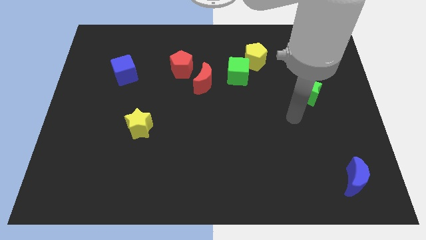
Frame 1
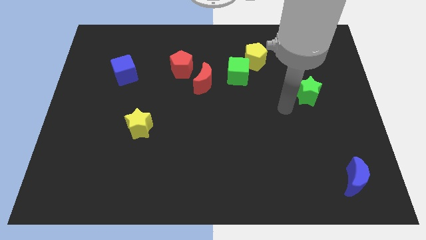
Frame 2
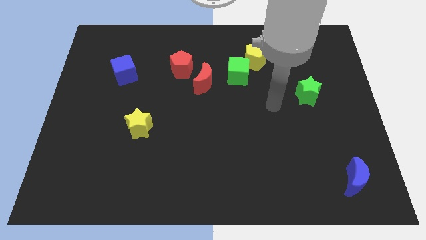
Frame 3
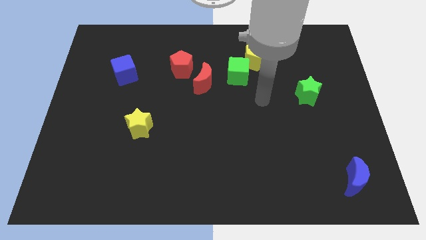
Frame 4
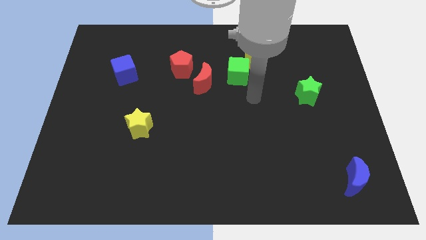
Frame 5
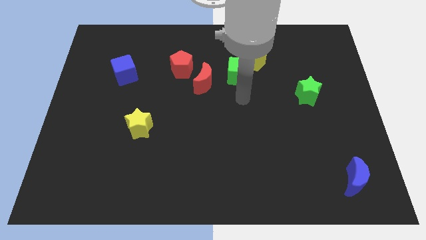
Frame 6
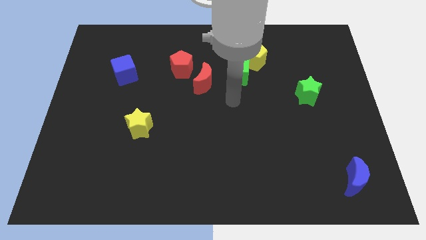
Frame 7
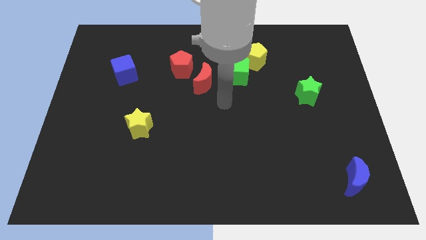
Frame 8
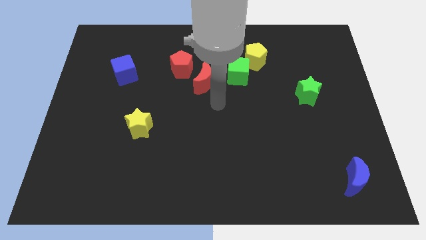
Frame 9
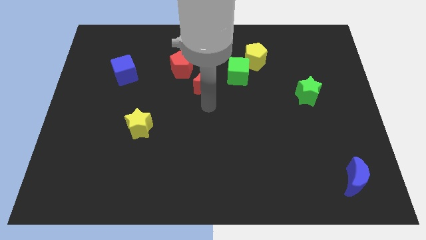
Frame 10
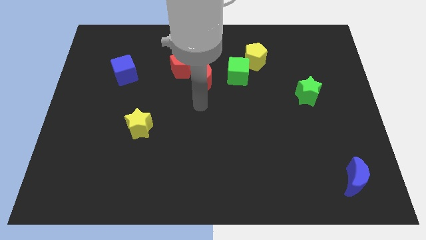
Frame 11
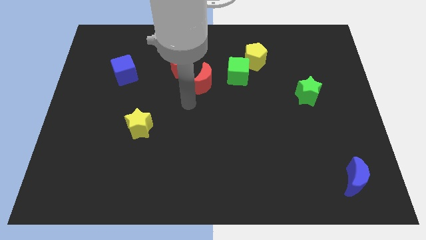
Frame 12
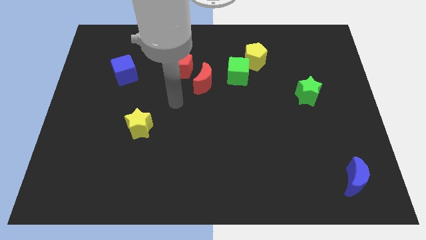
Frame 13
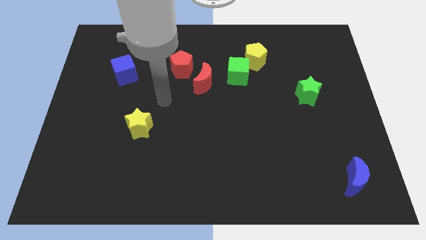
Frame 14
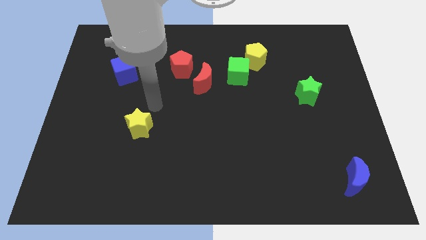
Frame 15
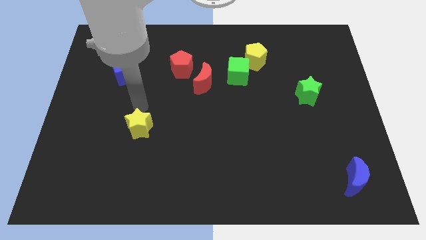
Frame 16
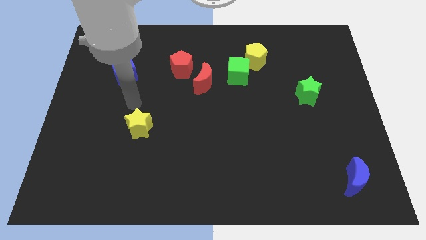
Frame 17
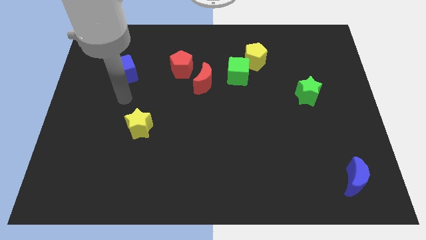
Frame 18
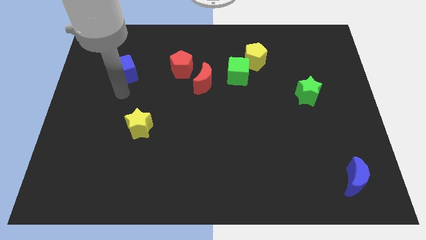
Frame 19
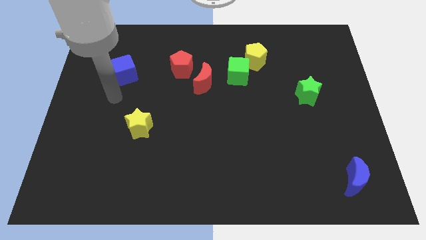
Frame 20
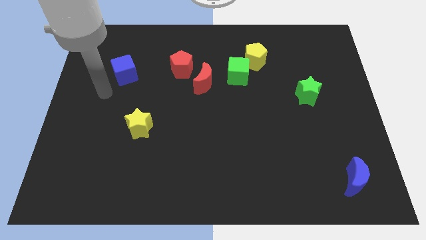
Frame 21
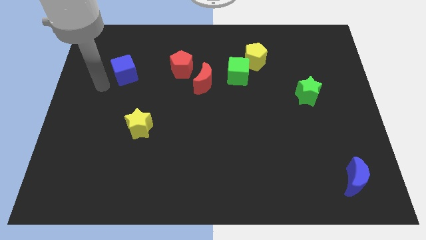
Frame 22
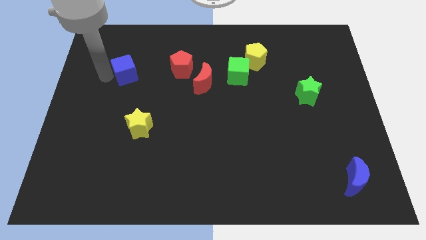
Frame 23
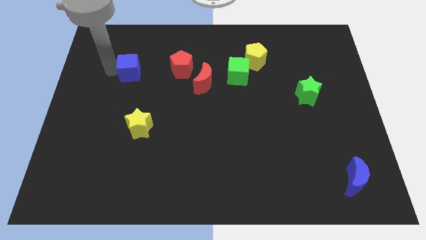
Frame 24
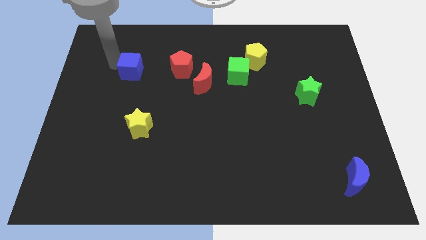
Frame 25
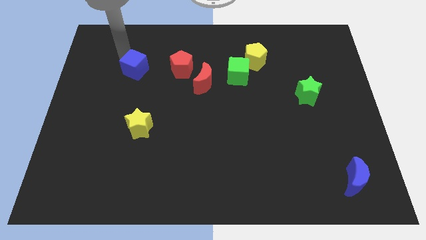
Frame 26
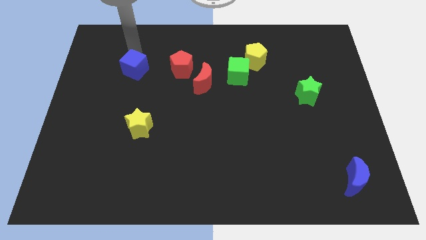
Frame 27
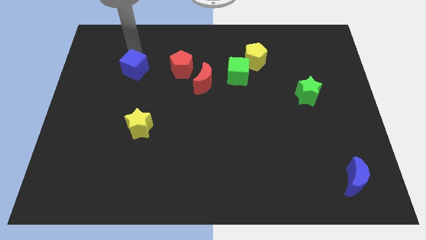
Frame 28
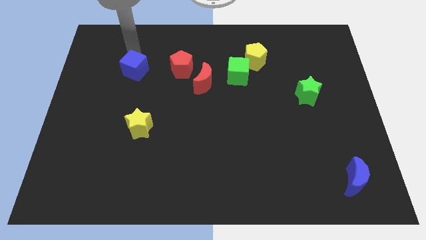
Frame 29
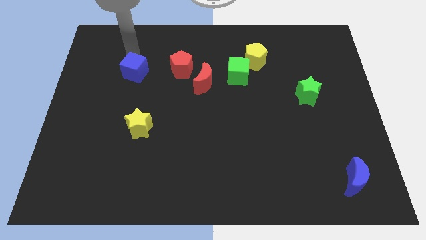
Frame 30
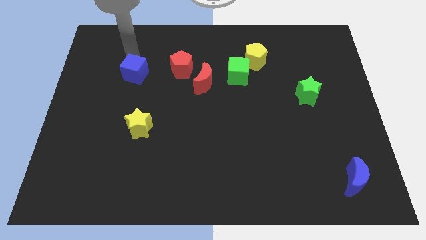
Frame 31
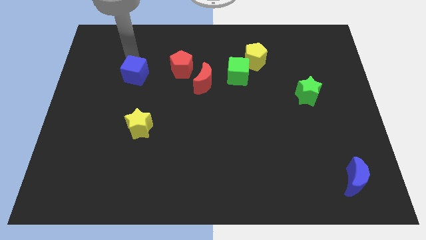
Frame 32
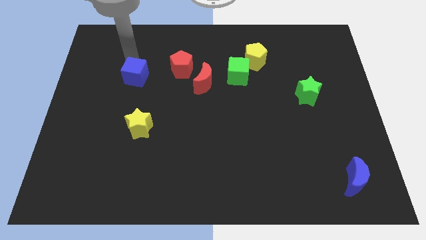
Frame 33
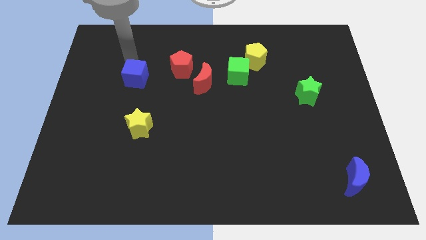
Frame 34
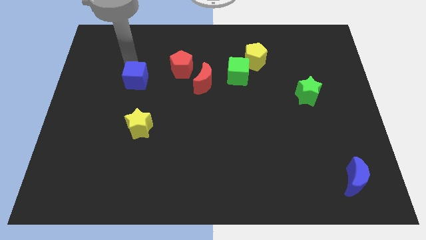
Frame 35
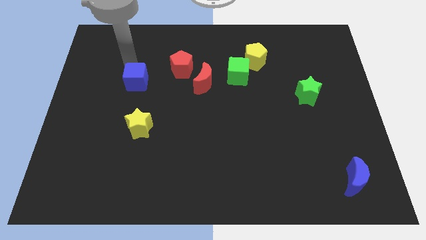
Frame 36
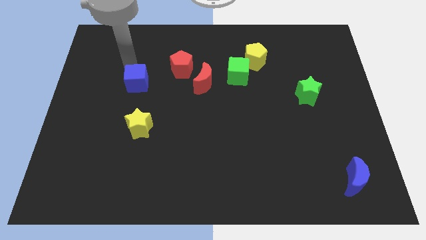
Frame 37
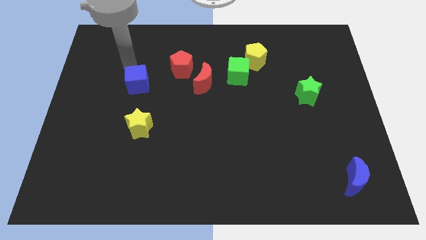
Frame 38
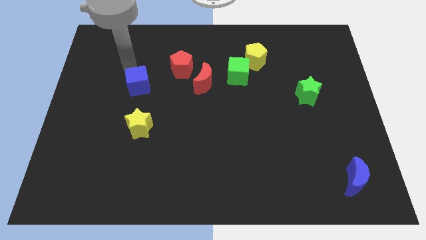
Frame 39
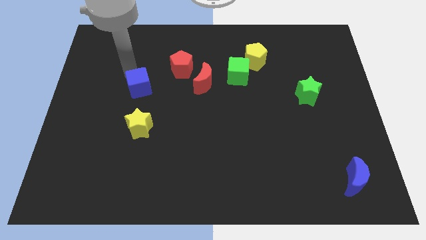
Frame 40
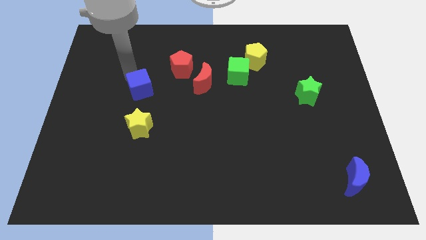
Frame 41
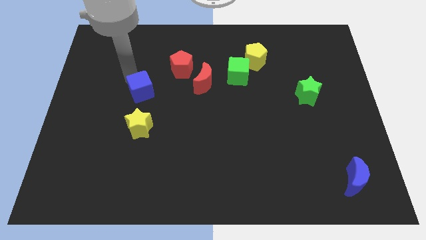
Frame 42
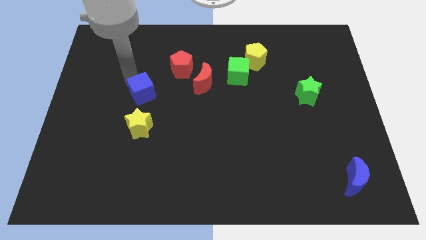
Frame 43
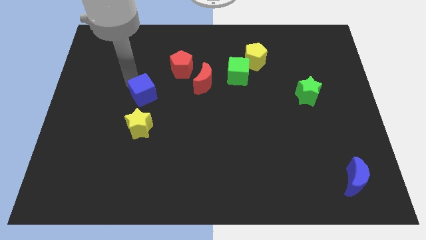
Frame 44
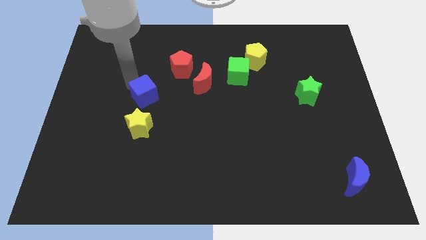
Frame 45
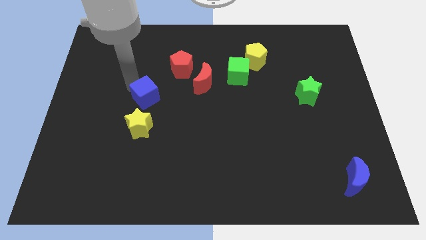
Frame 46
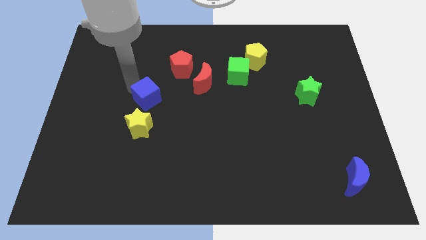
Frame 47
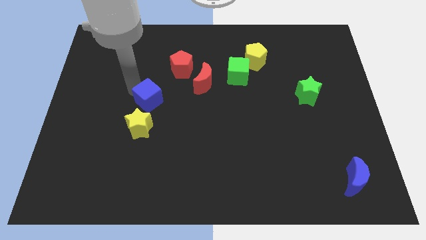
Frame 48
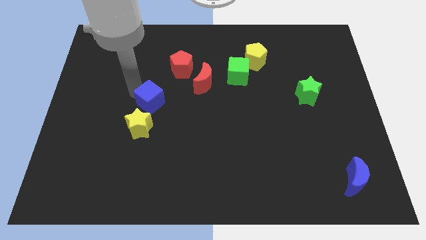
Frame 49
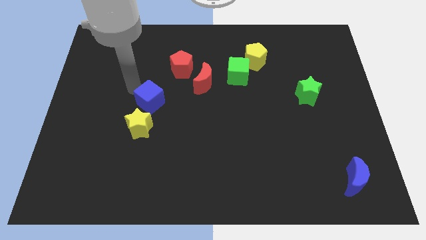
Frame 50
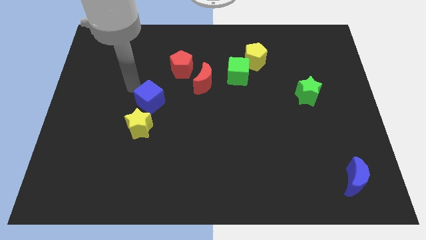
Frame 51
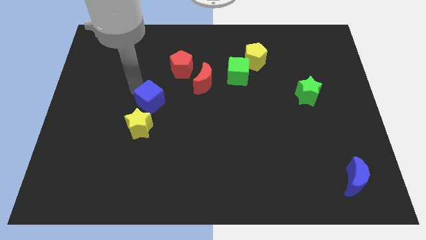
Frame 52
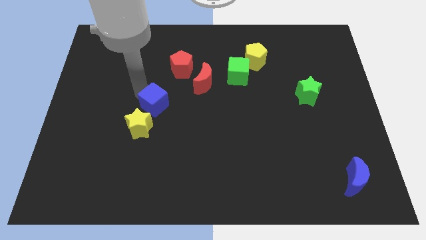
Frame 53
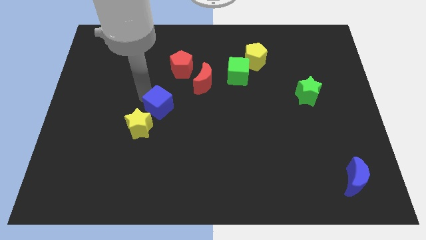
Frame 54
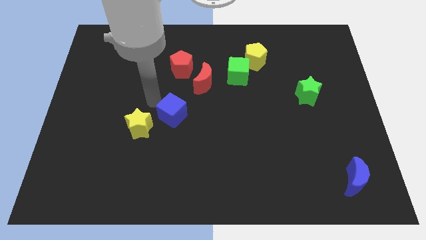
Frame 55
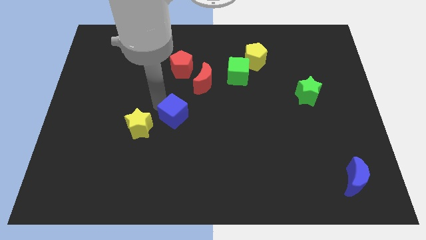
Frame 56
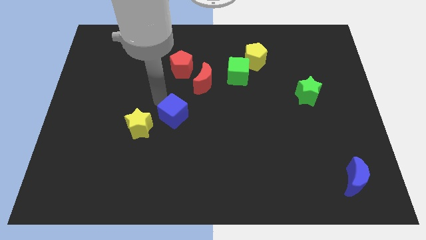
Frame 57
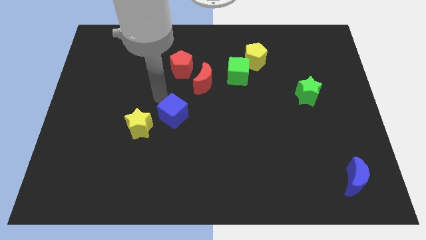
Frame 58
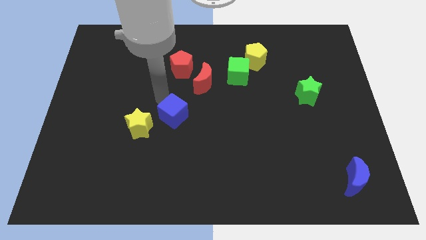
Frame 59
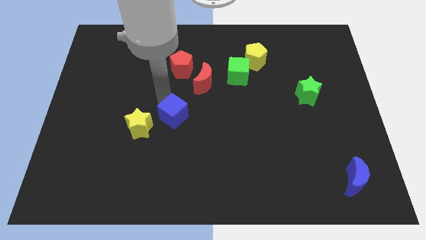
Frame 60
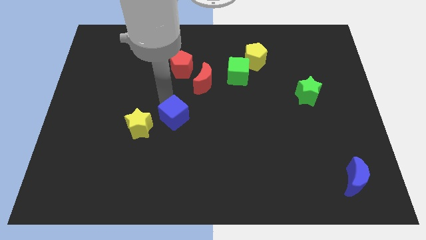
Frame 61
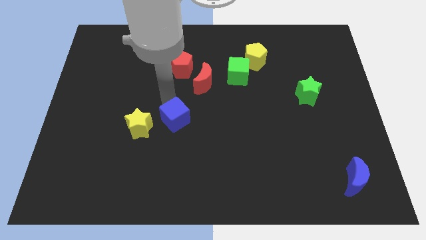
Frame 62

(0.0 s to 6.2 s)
slide the blue cube downwards and right

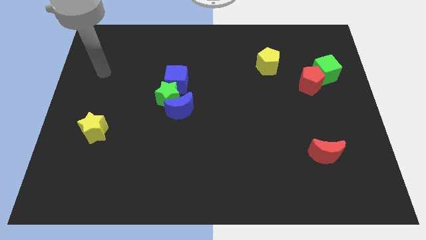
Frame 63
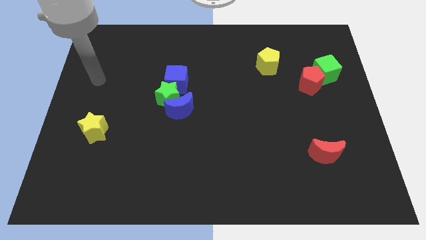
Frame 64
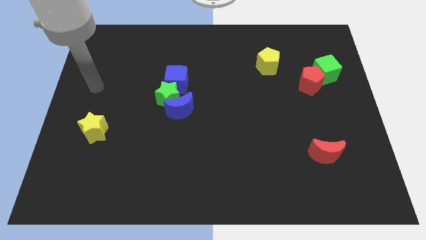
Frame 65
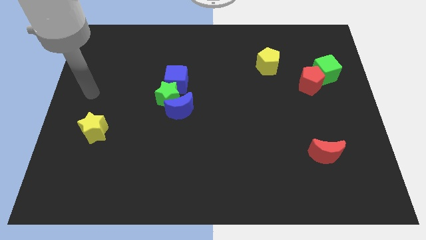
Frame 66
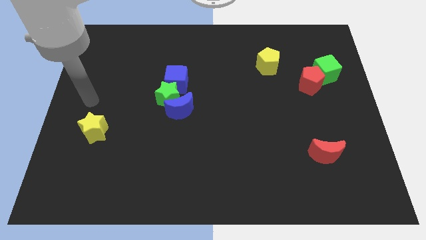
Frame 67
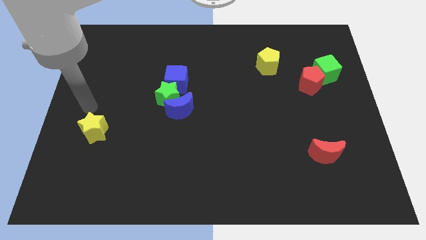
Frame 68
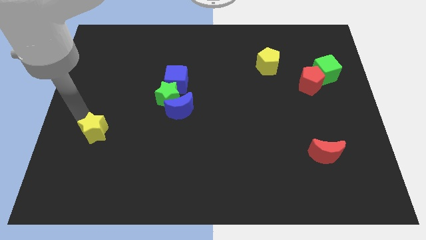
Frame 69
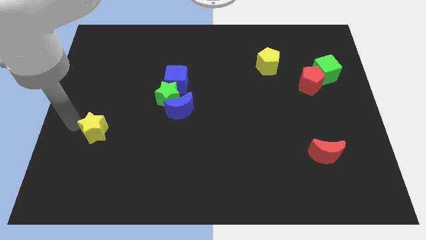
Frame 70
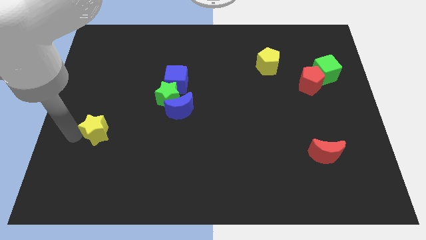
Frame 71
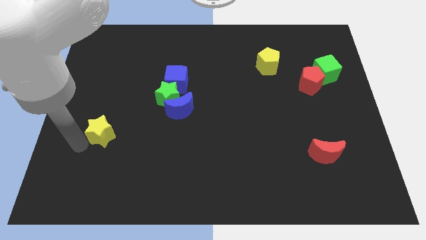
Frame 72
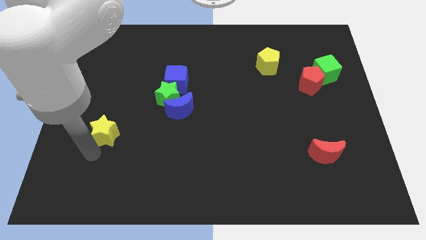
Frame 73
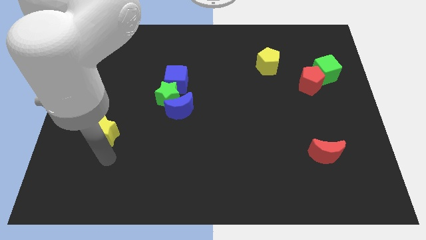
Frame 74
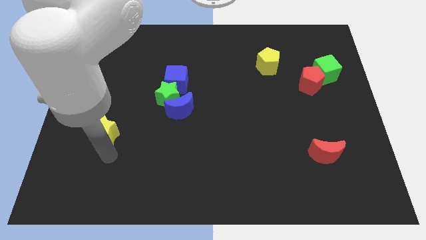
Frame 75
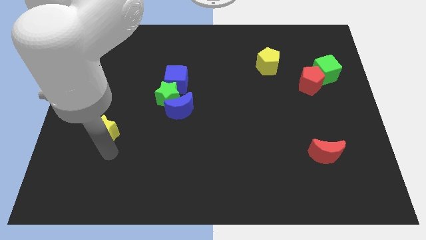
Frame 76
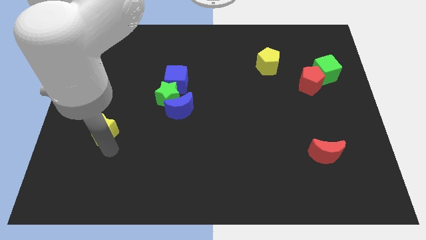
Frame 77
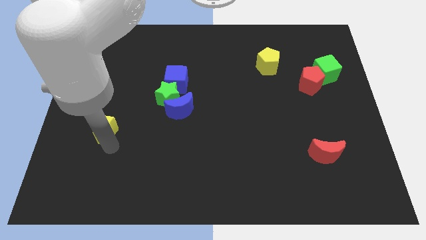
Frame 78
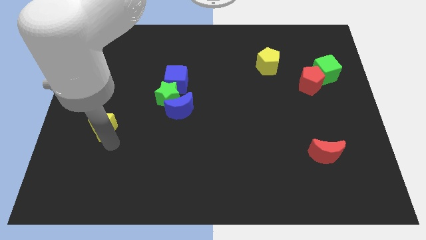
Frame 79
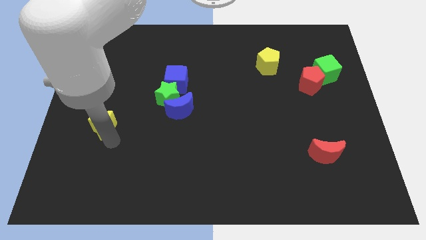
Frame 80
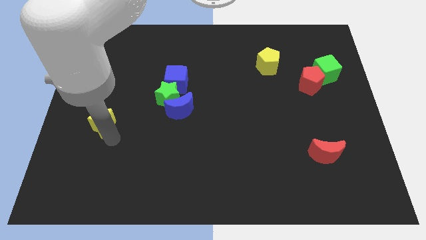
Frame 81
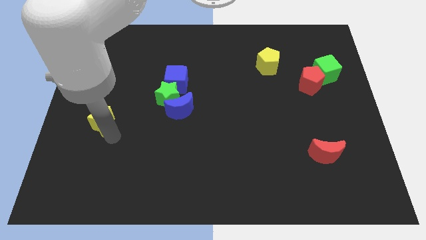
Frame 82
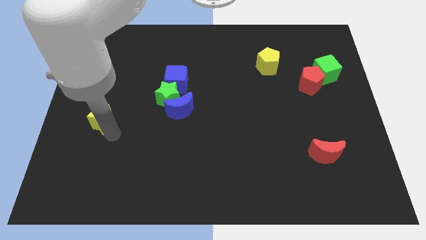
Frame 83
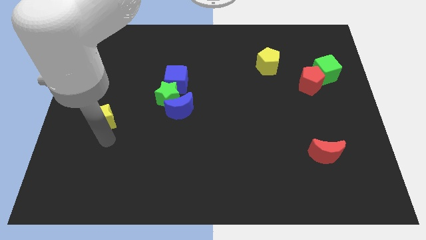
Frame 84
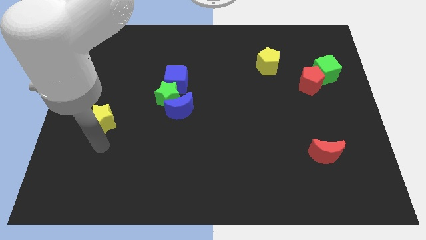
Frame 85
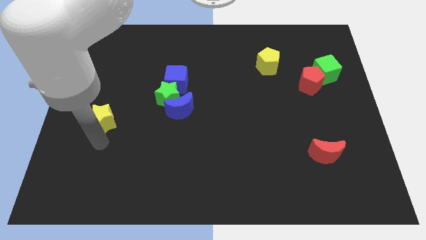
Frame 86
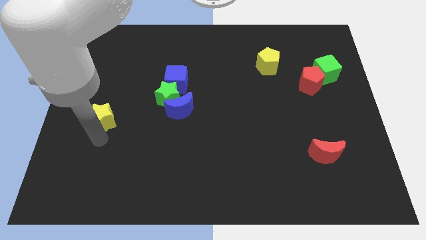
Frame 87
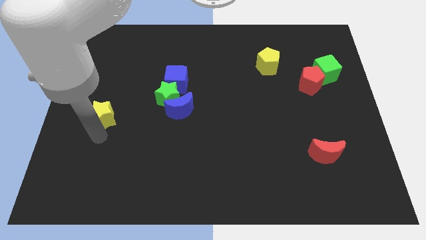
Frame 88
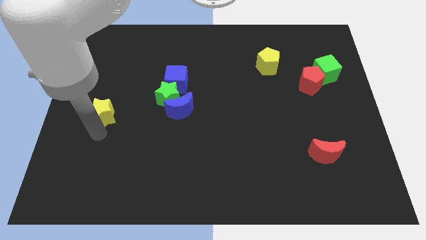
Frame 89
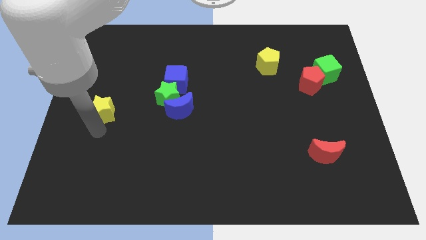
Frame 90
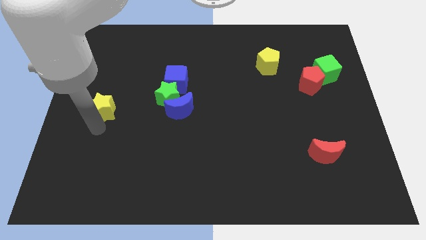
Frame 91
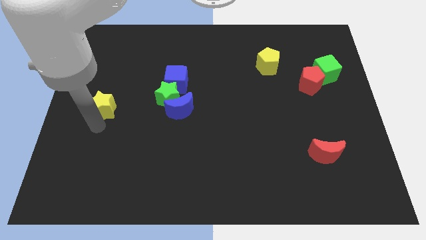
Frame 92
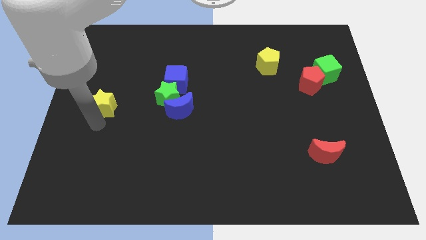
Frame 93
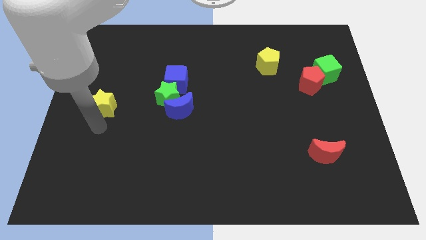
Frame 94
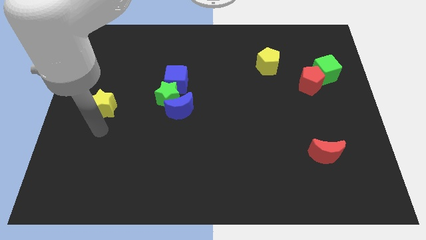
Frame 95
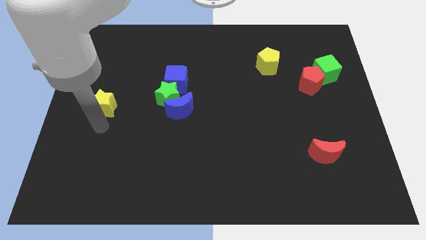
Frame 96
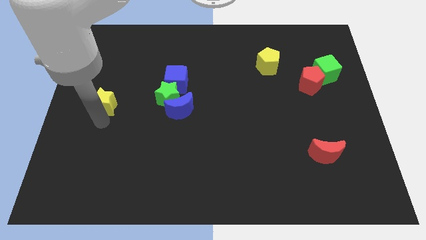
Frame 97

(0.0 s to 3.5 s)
slide the yellow star up a bit
